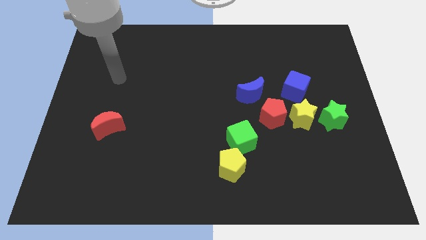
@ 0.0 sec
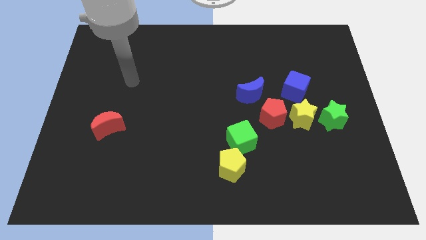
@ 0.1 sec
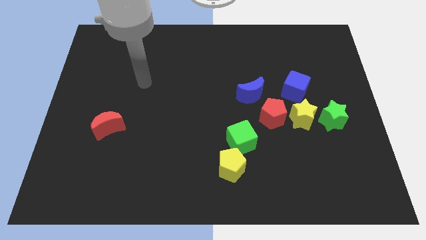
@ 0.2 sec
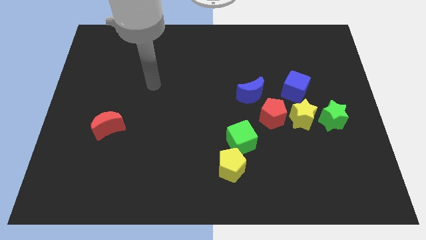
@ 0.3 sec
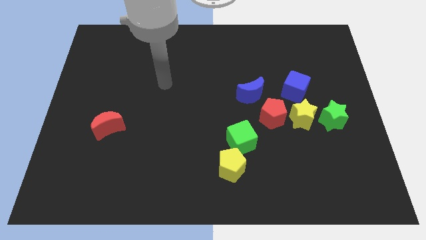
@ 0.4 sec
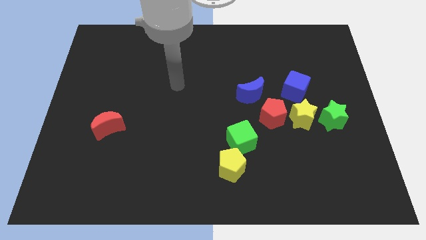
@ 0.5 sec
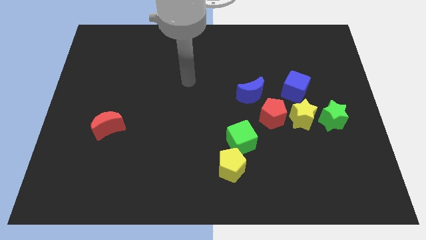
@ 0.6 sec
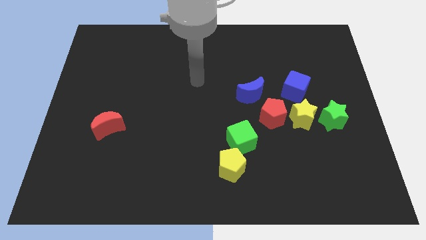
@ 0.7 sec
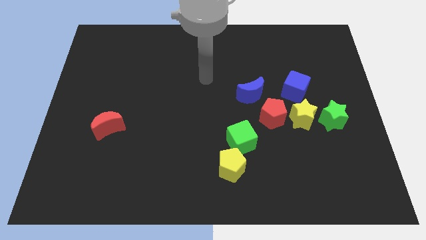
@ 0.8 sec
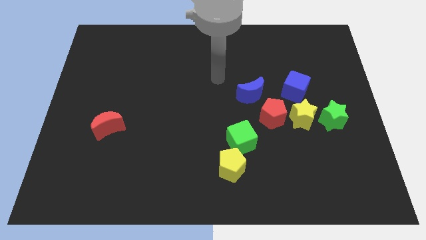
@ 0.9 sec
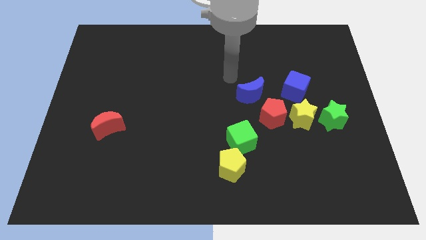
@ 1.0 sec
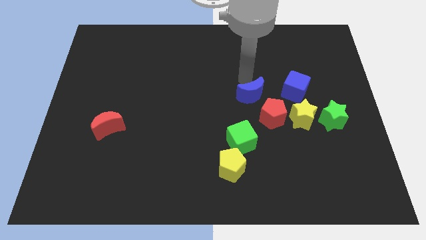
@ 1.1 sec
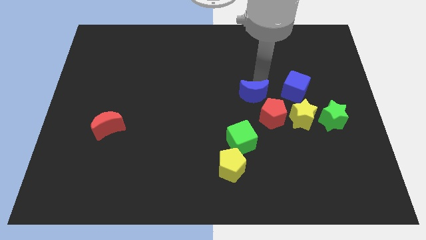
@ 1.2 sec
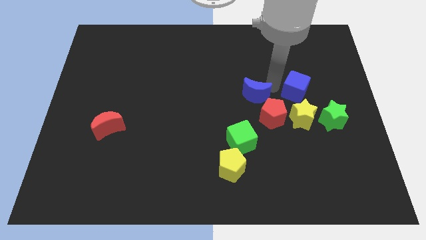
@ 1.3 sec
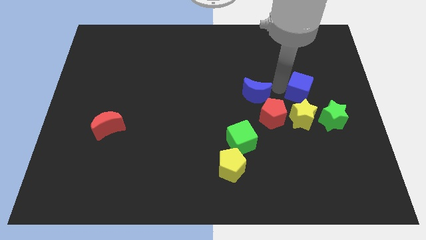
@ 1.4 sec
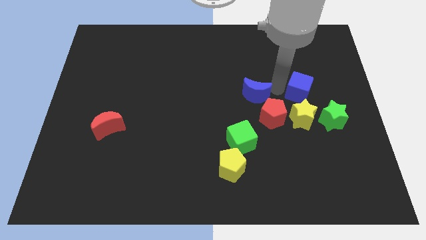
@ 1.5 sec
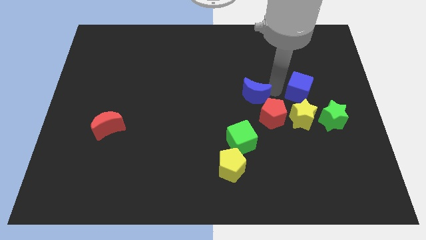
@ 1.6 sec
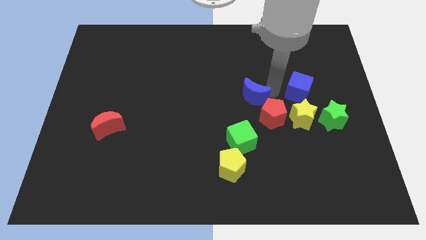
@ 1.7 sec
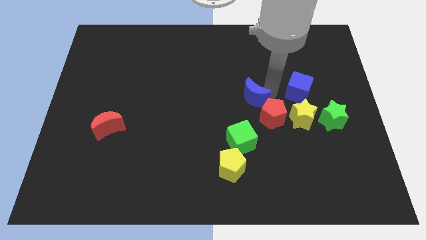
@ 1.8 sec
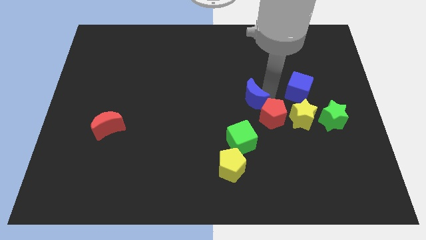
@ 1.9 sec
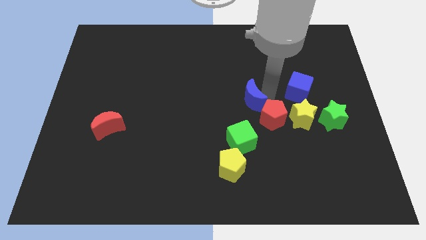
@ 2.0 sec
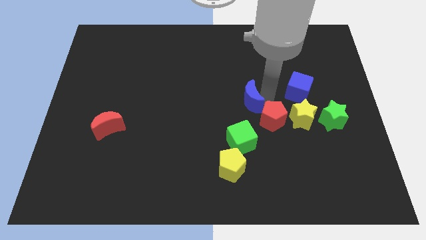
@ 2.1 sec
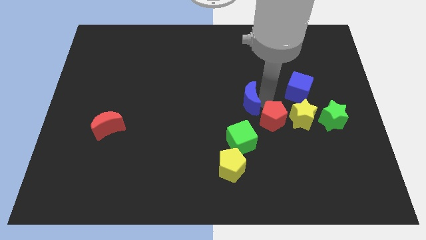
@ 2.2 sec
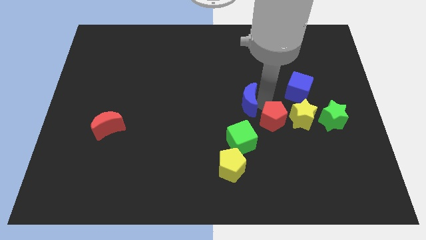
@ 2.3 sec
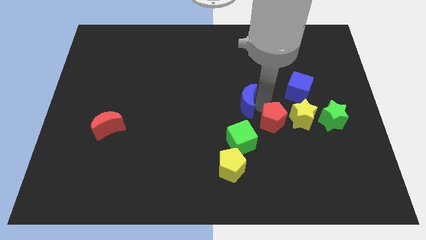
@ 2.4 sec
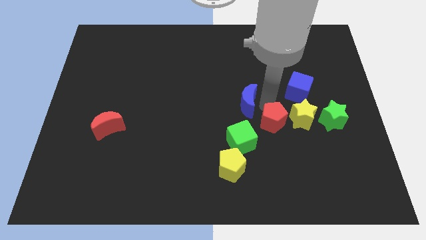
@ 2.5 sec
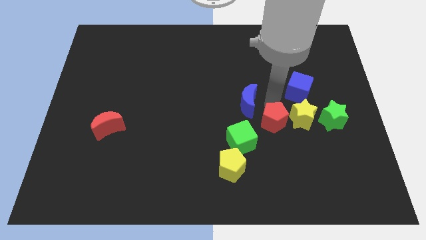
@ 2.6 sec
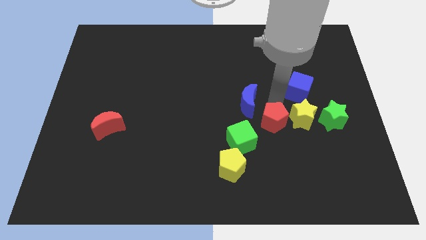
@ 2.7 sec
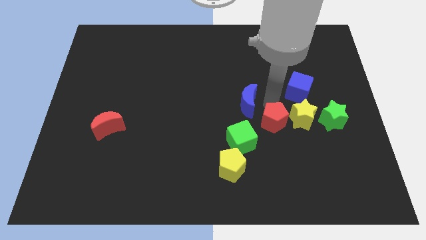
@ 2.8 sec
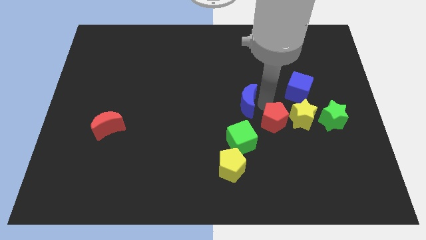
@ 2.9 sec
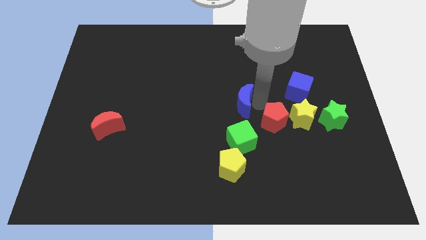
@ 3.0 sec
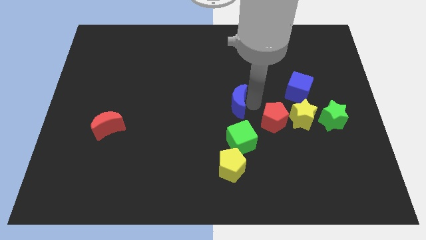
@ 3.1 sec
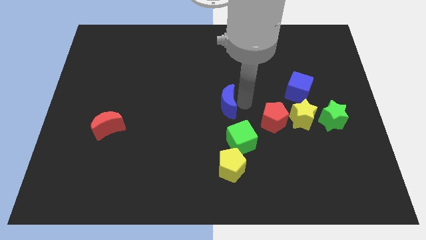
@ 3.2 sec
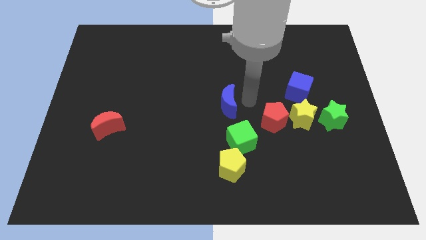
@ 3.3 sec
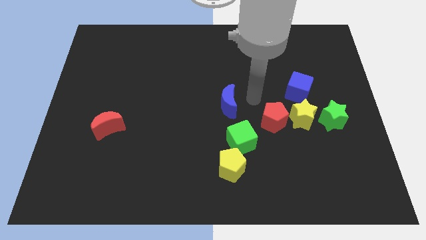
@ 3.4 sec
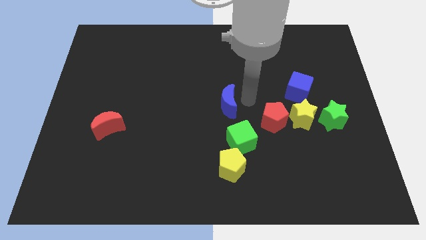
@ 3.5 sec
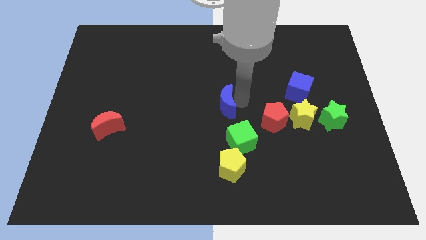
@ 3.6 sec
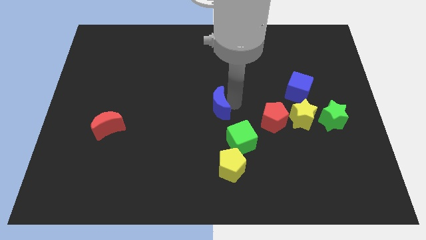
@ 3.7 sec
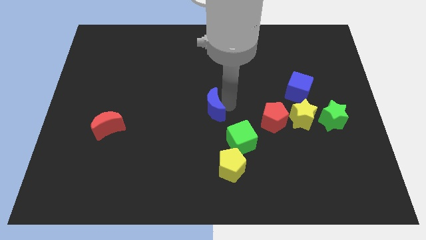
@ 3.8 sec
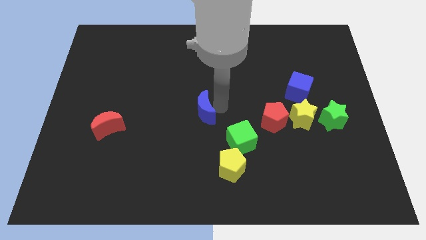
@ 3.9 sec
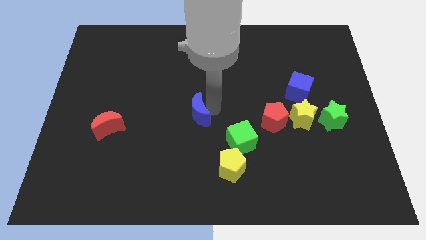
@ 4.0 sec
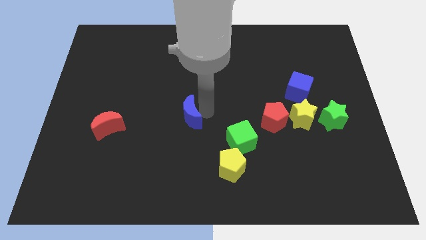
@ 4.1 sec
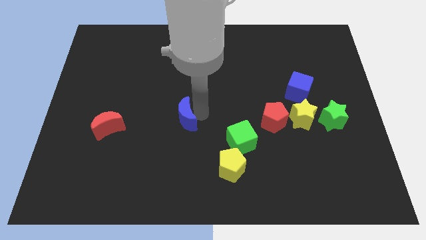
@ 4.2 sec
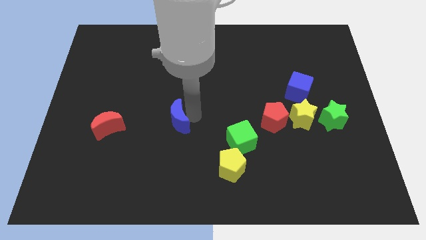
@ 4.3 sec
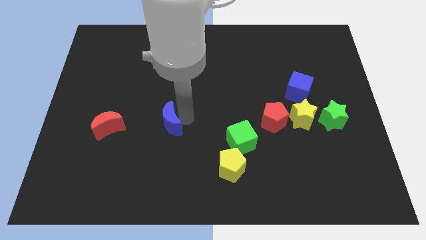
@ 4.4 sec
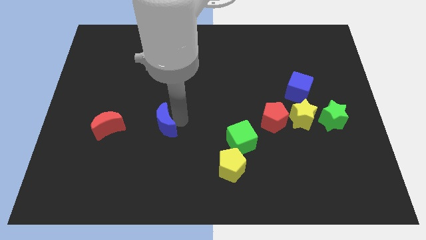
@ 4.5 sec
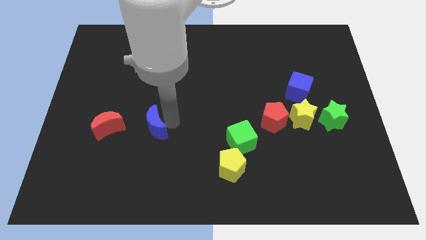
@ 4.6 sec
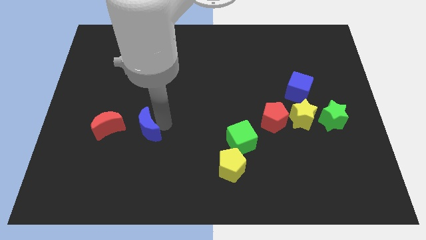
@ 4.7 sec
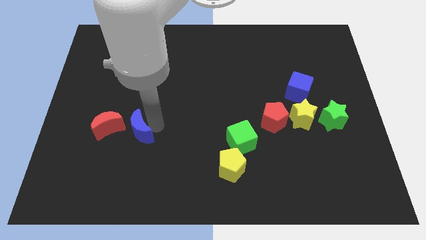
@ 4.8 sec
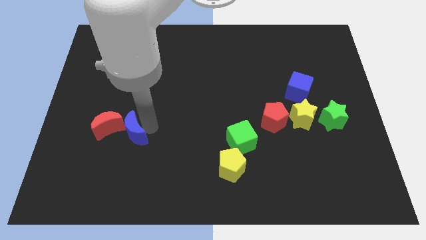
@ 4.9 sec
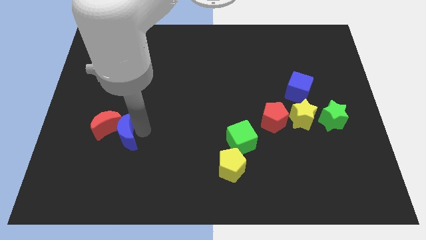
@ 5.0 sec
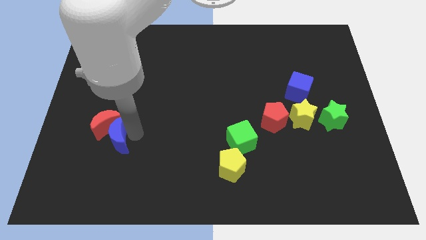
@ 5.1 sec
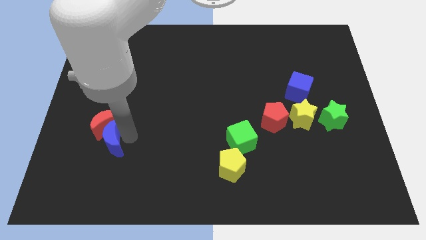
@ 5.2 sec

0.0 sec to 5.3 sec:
slide the blue moon diagonally down and to the left of the red moon

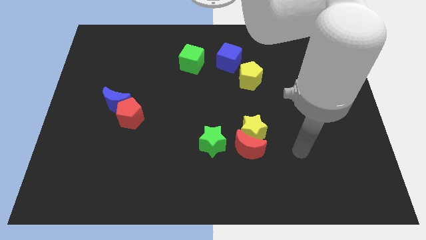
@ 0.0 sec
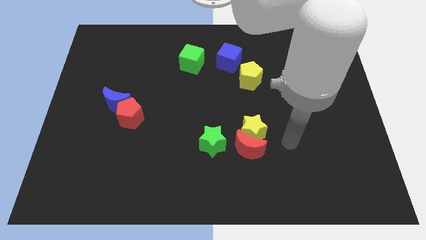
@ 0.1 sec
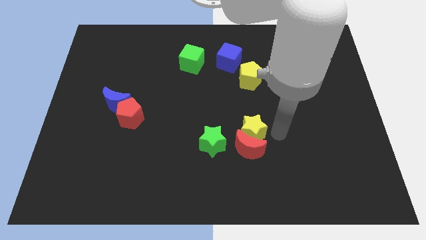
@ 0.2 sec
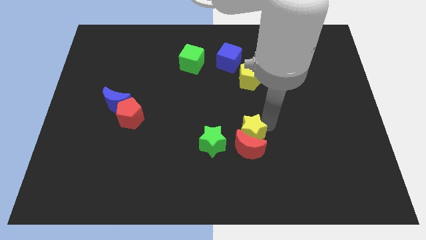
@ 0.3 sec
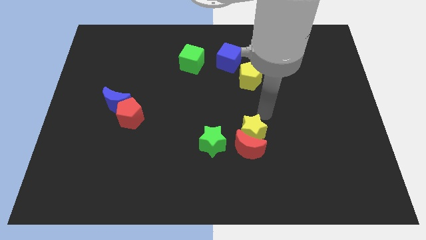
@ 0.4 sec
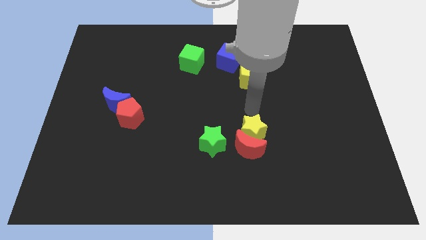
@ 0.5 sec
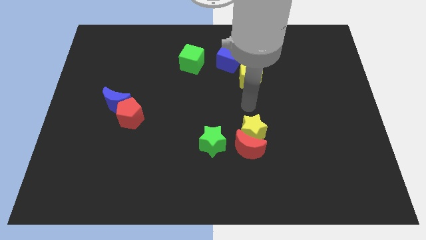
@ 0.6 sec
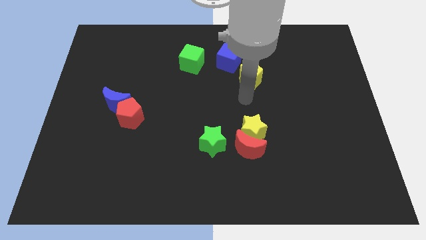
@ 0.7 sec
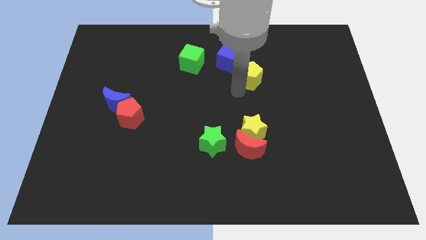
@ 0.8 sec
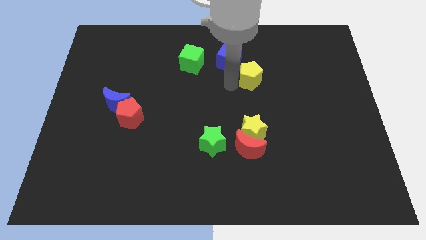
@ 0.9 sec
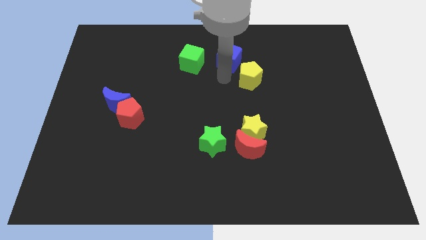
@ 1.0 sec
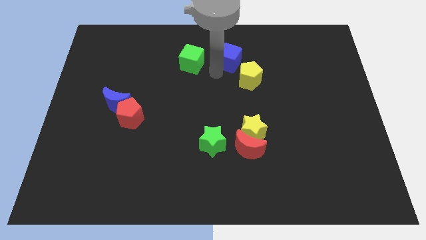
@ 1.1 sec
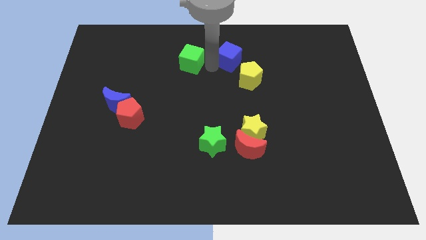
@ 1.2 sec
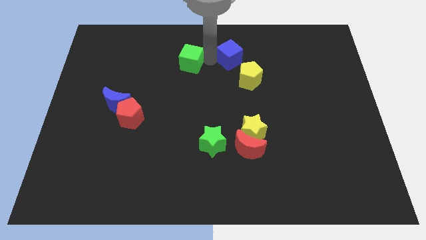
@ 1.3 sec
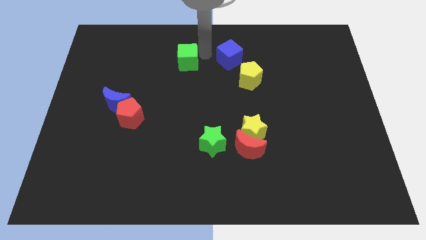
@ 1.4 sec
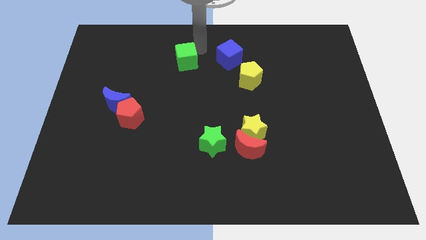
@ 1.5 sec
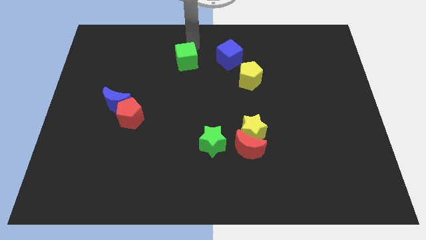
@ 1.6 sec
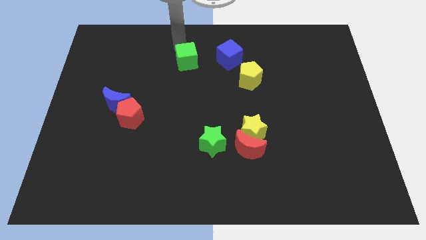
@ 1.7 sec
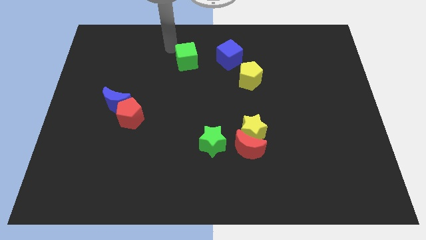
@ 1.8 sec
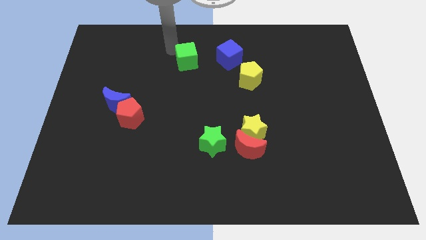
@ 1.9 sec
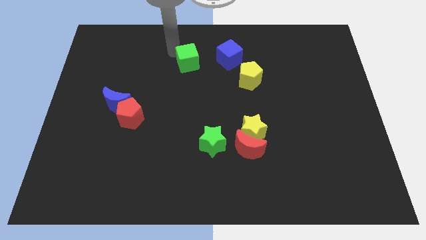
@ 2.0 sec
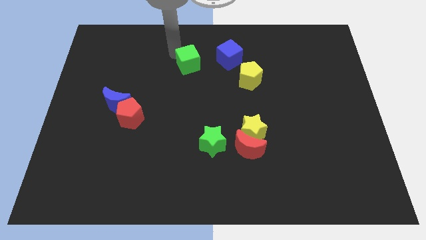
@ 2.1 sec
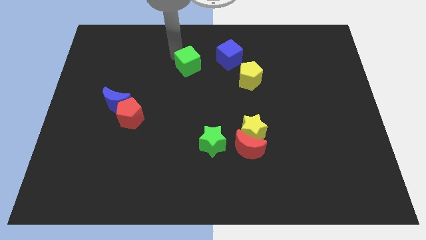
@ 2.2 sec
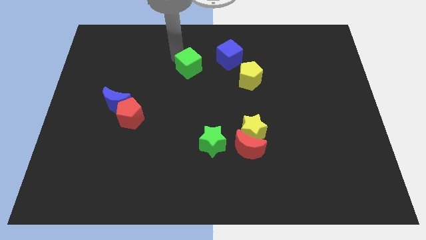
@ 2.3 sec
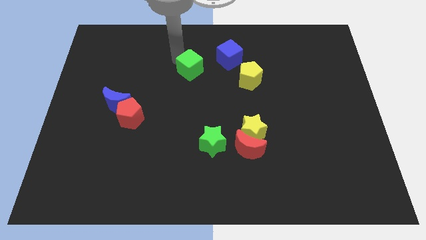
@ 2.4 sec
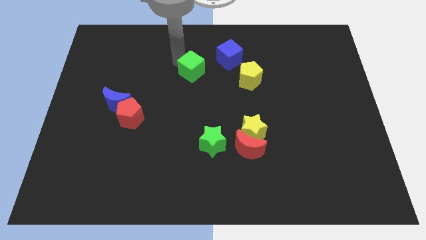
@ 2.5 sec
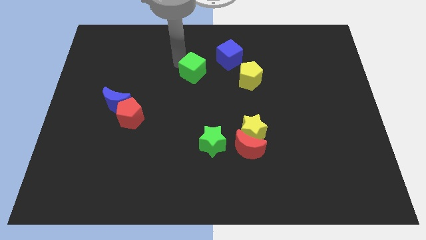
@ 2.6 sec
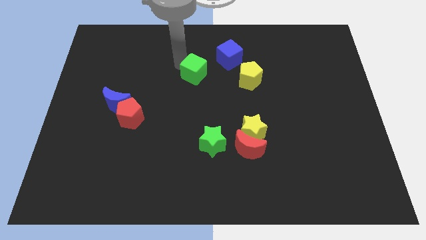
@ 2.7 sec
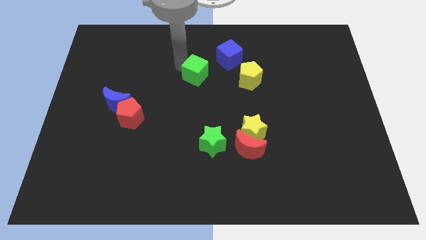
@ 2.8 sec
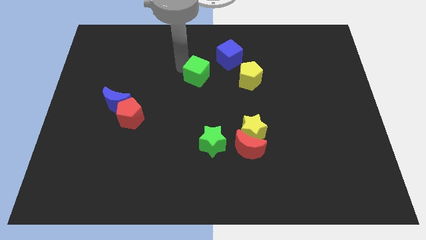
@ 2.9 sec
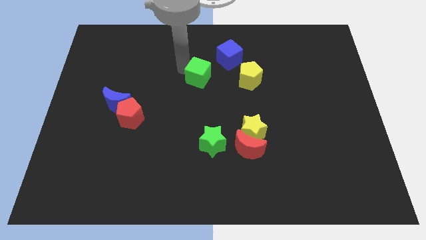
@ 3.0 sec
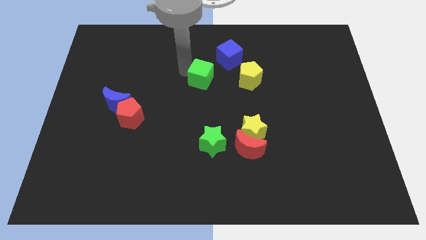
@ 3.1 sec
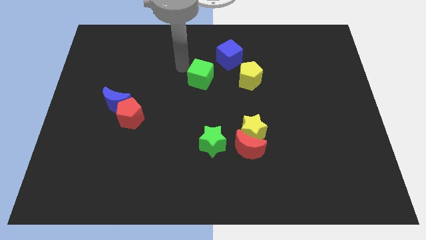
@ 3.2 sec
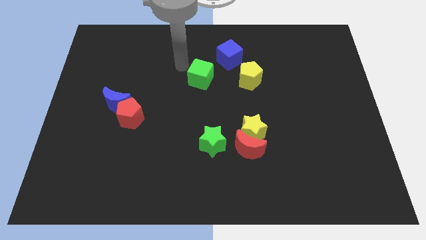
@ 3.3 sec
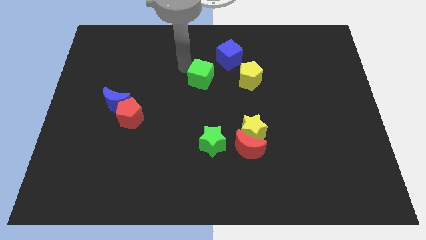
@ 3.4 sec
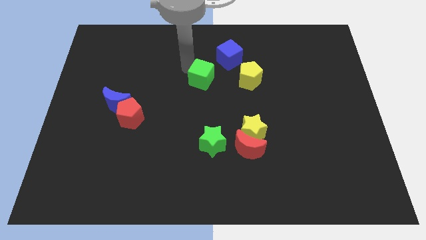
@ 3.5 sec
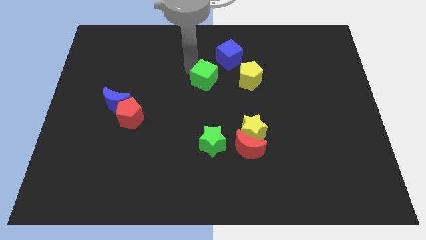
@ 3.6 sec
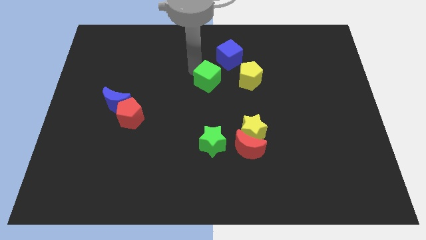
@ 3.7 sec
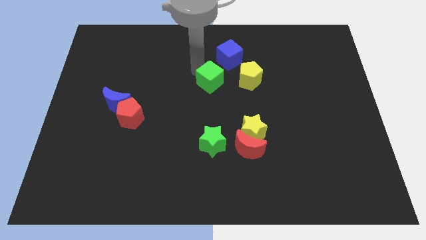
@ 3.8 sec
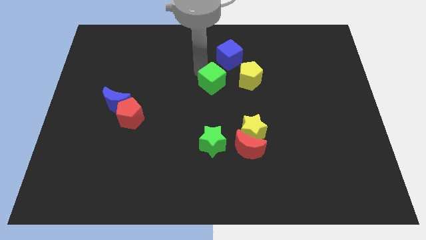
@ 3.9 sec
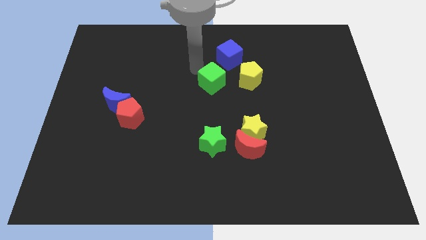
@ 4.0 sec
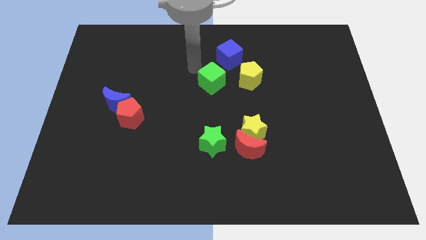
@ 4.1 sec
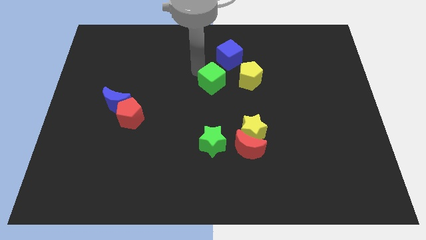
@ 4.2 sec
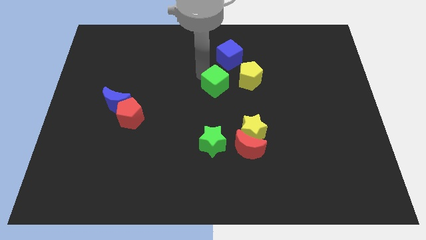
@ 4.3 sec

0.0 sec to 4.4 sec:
slide the green cube to the bottom left of the yellow pentagon
